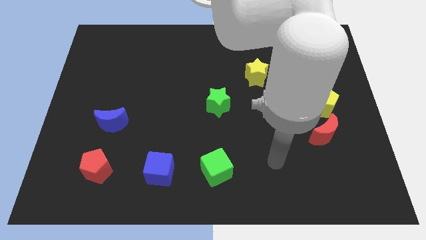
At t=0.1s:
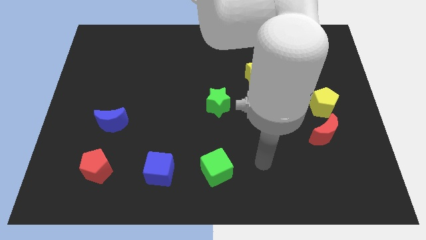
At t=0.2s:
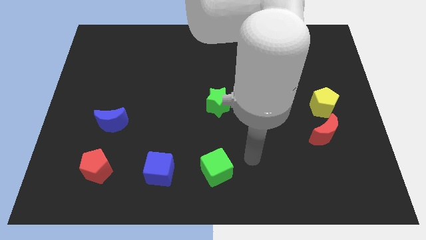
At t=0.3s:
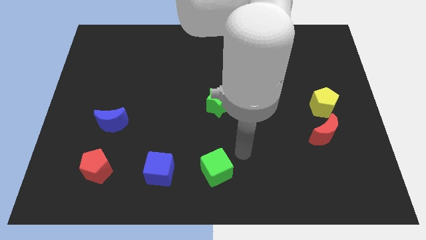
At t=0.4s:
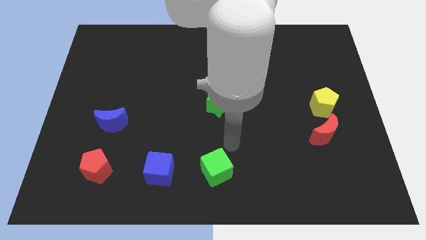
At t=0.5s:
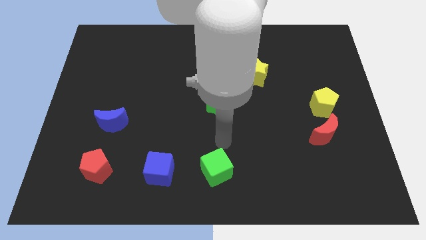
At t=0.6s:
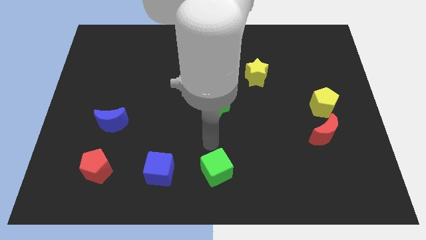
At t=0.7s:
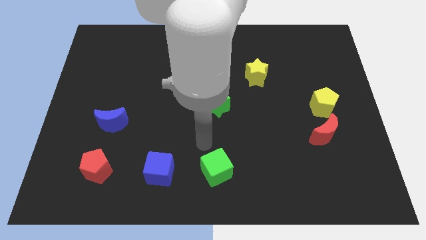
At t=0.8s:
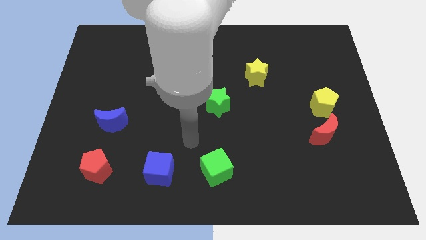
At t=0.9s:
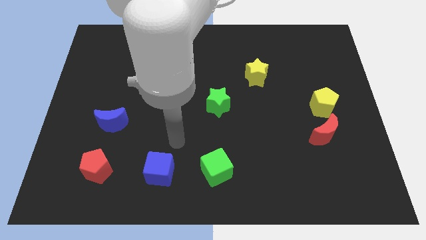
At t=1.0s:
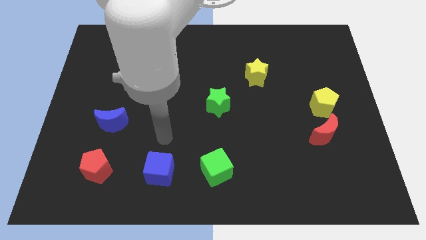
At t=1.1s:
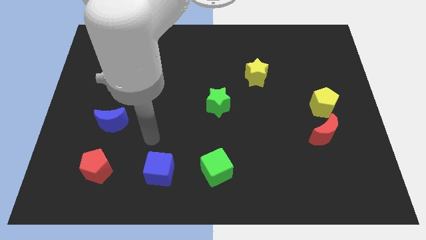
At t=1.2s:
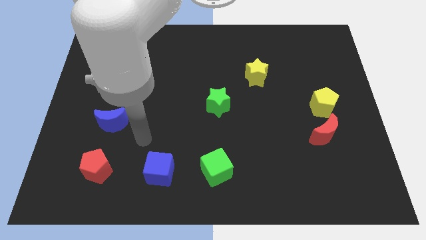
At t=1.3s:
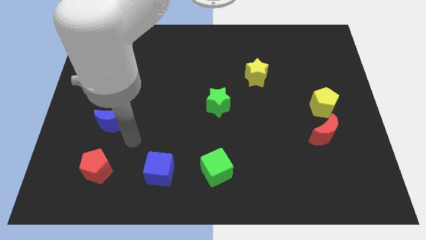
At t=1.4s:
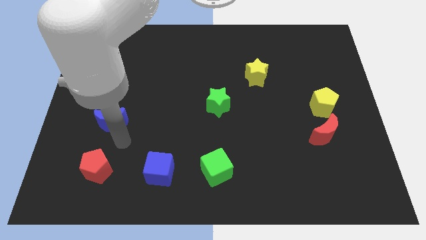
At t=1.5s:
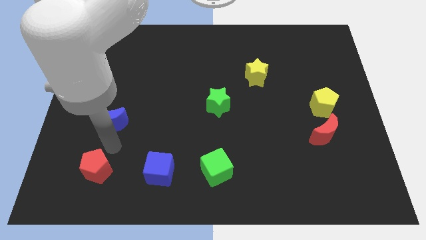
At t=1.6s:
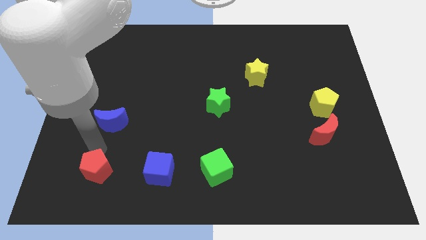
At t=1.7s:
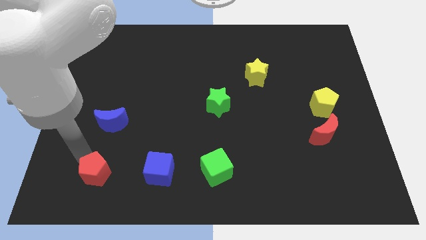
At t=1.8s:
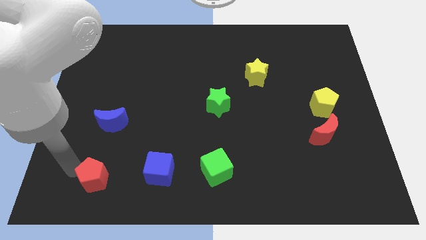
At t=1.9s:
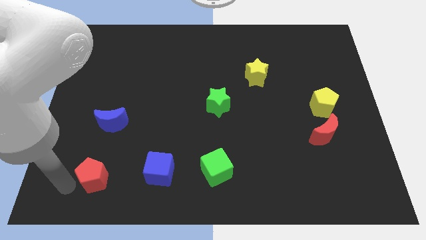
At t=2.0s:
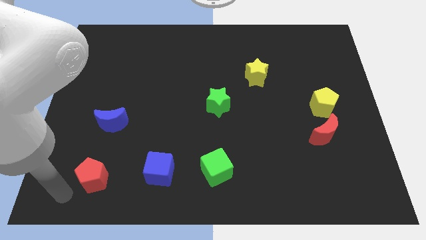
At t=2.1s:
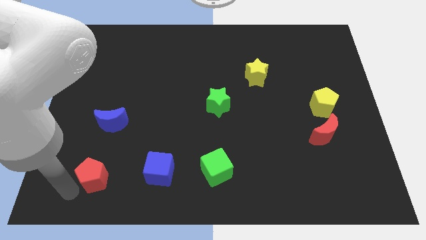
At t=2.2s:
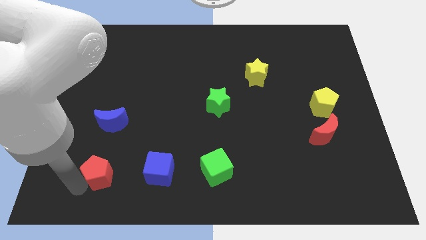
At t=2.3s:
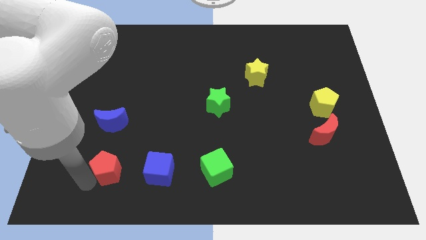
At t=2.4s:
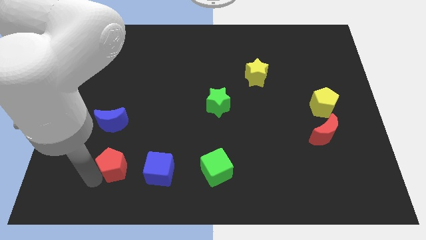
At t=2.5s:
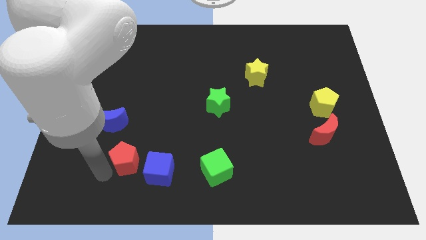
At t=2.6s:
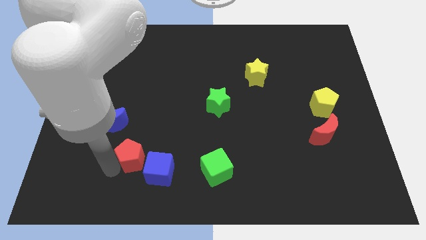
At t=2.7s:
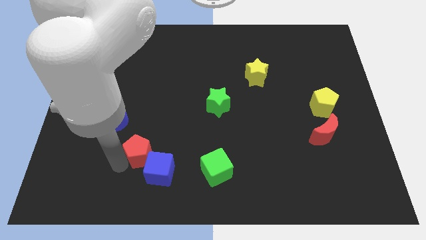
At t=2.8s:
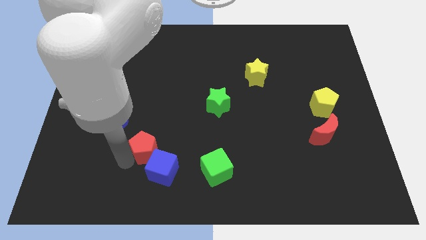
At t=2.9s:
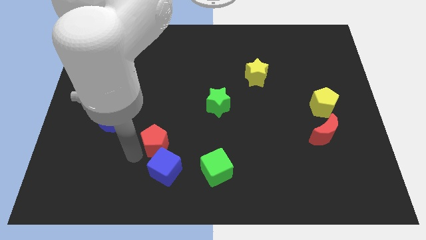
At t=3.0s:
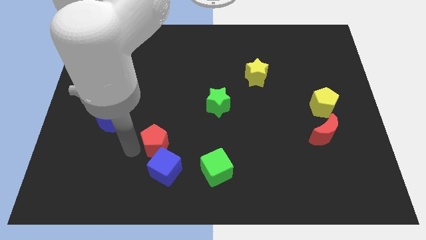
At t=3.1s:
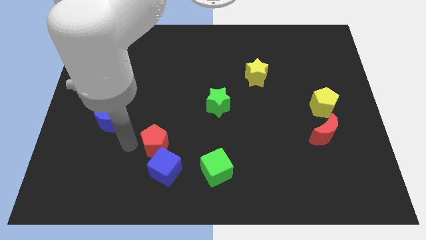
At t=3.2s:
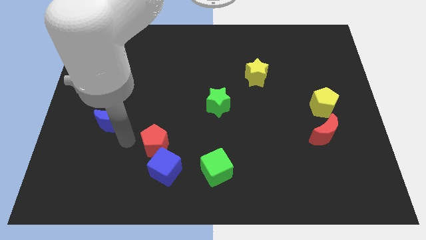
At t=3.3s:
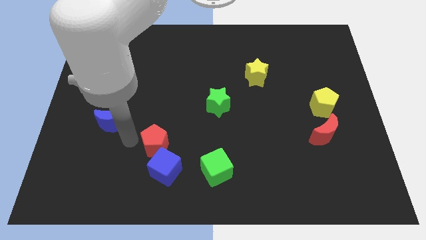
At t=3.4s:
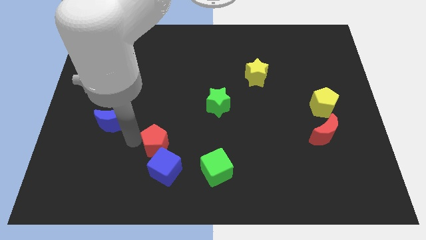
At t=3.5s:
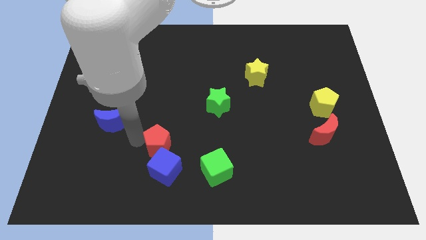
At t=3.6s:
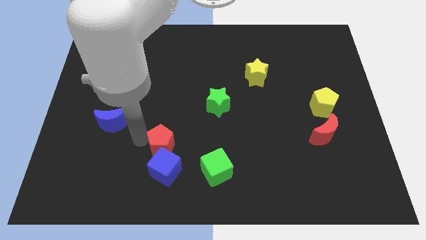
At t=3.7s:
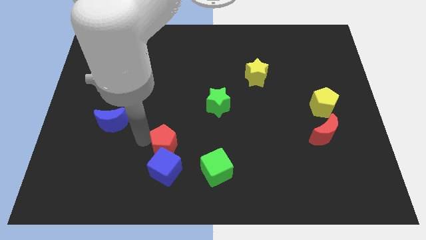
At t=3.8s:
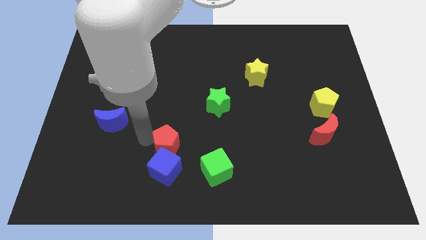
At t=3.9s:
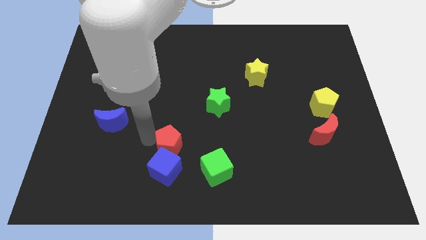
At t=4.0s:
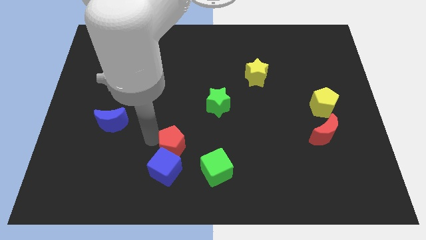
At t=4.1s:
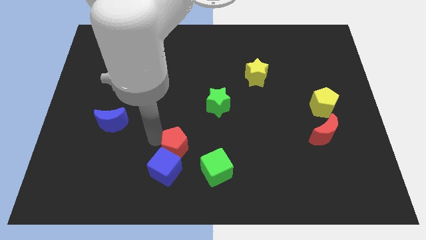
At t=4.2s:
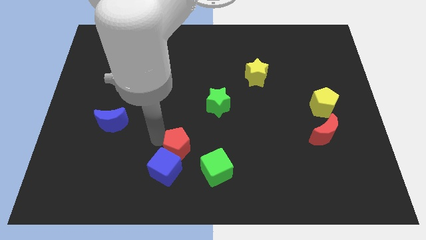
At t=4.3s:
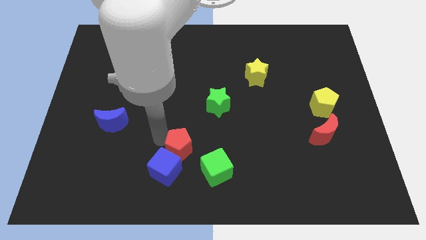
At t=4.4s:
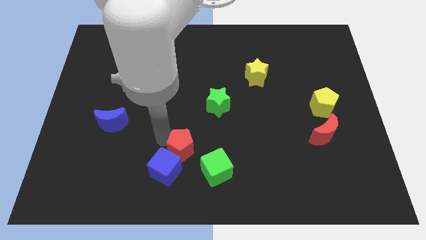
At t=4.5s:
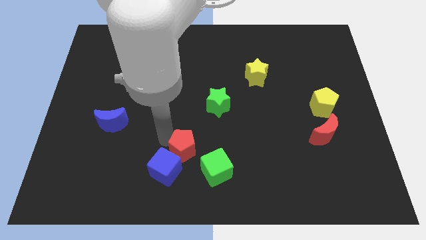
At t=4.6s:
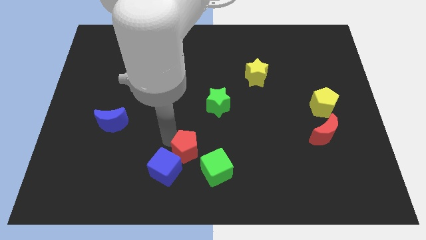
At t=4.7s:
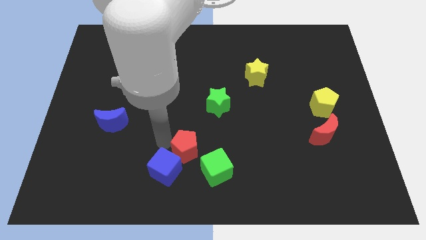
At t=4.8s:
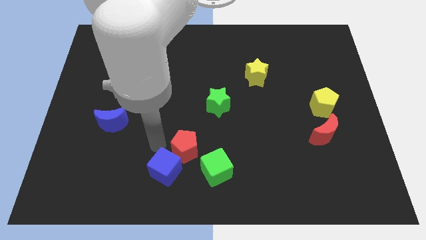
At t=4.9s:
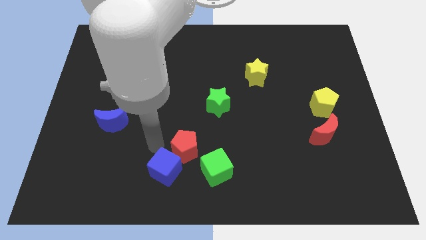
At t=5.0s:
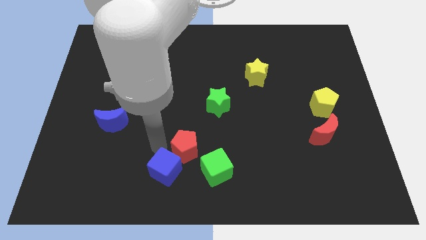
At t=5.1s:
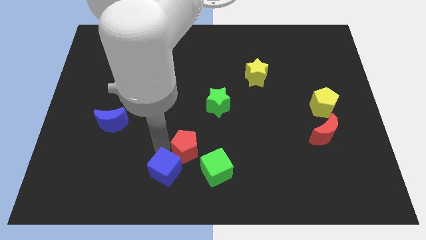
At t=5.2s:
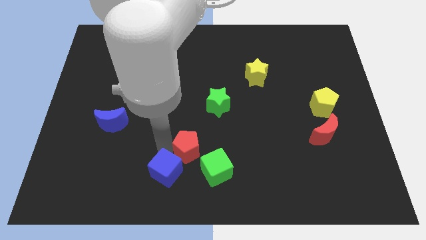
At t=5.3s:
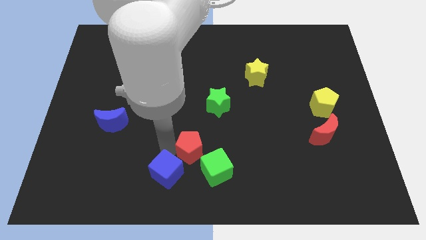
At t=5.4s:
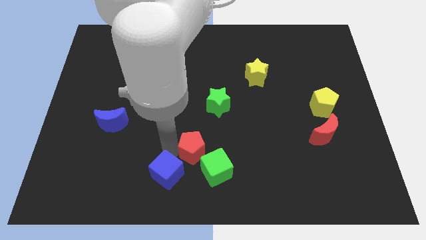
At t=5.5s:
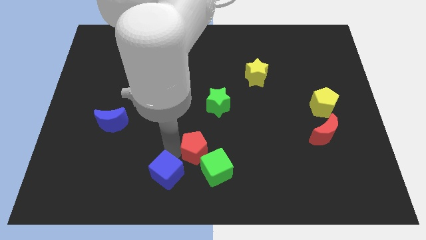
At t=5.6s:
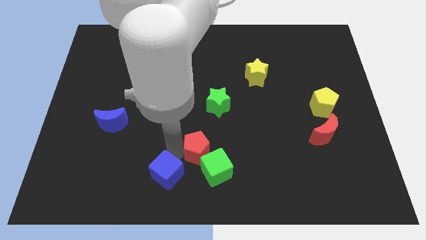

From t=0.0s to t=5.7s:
slide the red pentagon right

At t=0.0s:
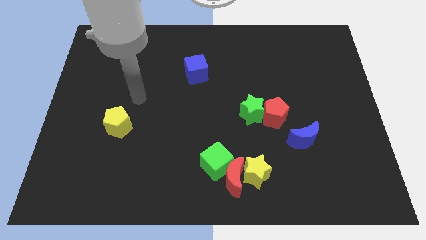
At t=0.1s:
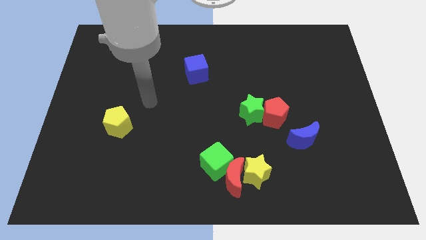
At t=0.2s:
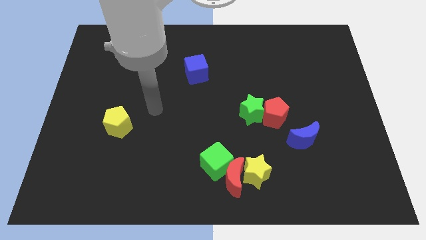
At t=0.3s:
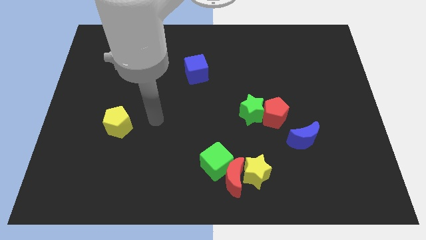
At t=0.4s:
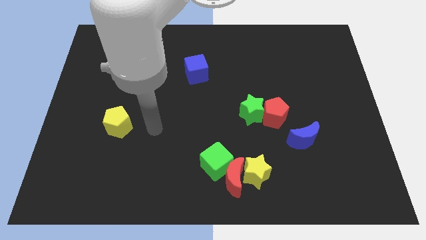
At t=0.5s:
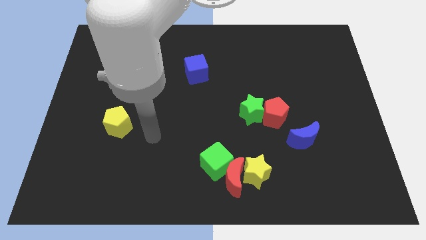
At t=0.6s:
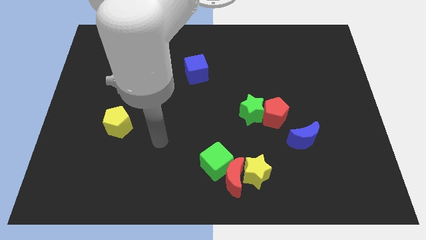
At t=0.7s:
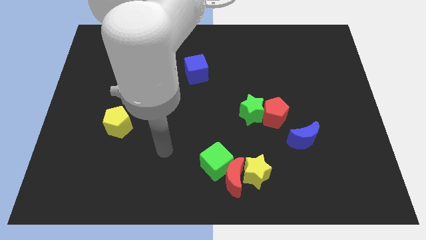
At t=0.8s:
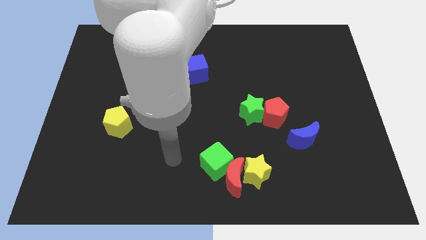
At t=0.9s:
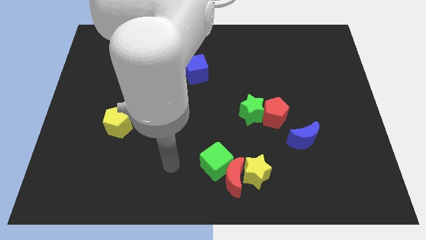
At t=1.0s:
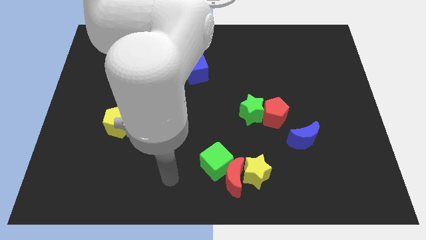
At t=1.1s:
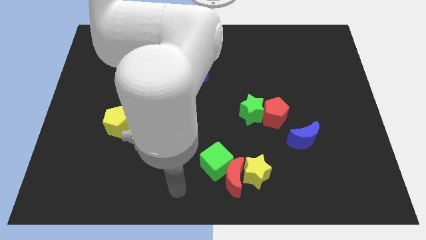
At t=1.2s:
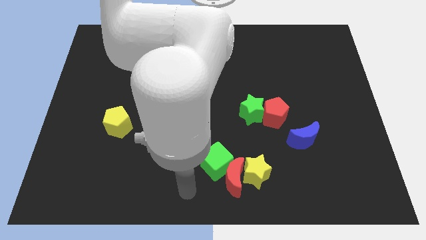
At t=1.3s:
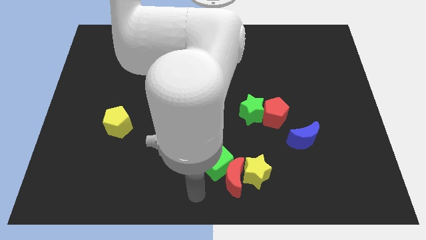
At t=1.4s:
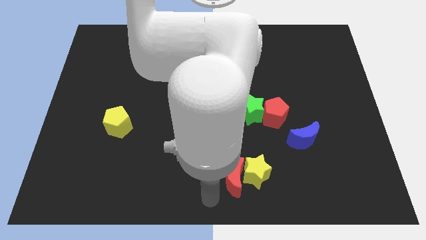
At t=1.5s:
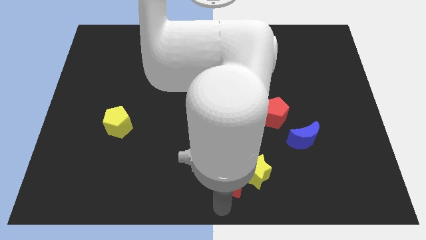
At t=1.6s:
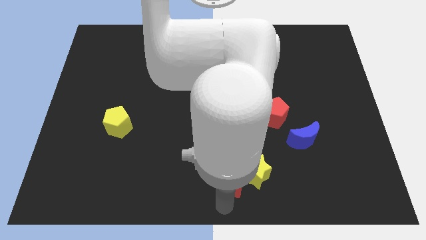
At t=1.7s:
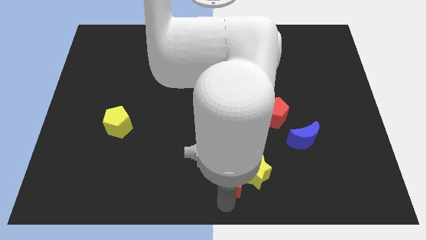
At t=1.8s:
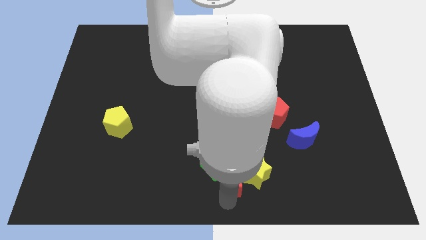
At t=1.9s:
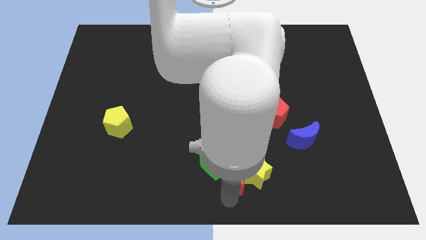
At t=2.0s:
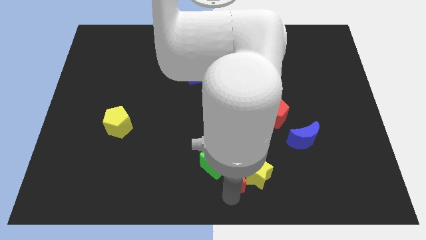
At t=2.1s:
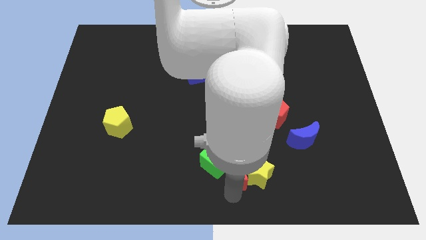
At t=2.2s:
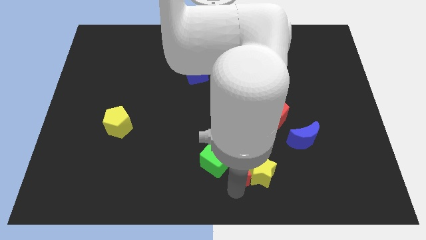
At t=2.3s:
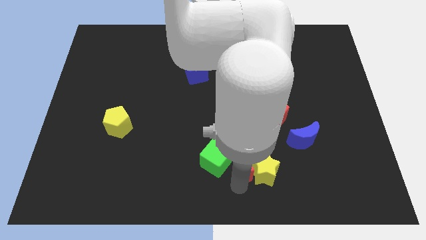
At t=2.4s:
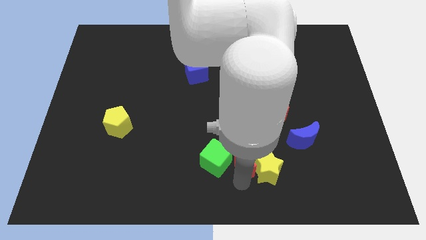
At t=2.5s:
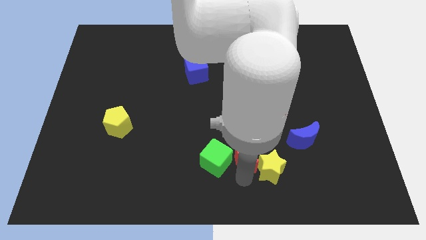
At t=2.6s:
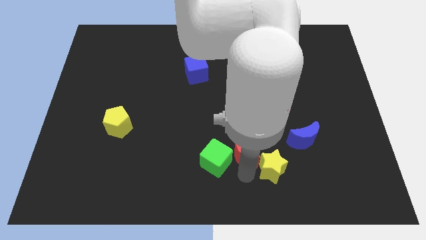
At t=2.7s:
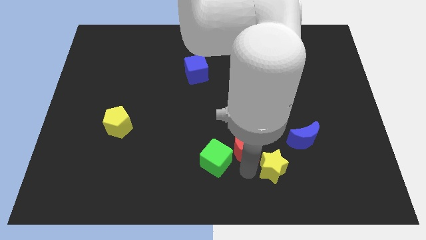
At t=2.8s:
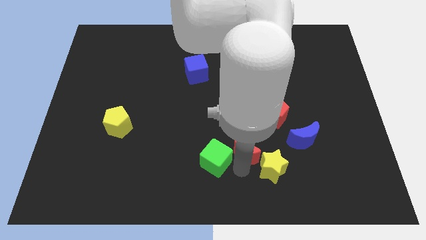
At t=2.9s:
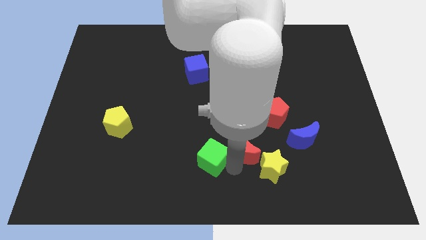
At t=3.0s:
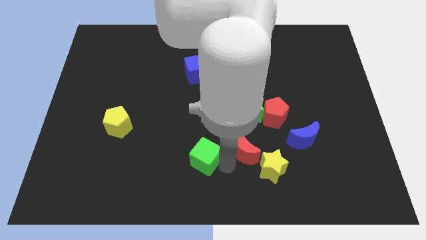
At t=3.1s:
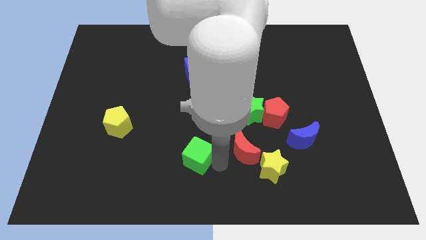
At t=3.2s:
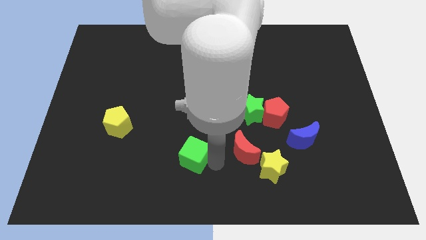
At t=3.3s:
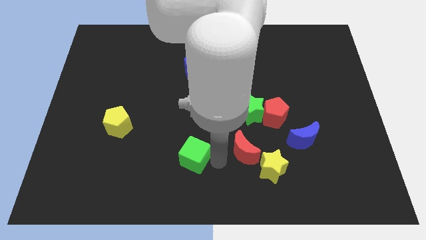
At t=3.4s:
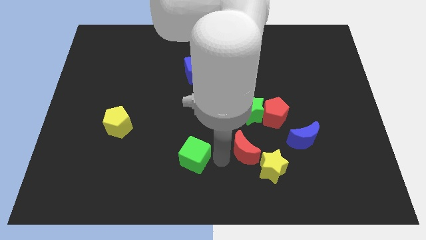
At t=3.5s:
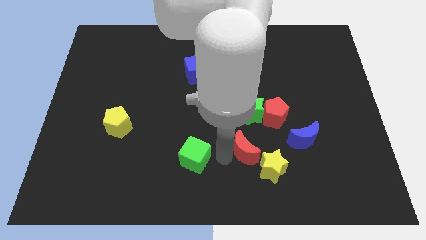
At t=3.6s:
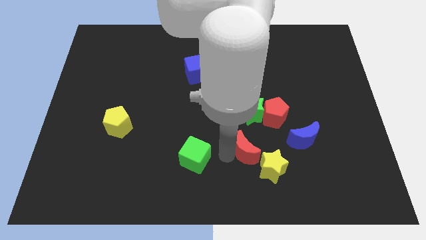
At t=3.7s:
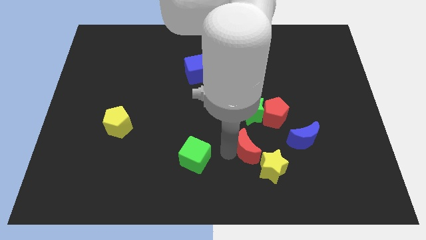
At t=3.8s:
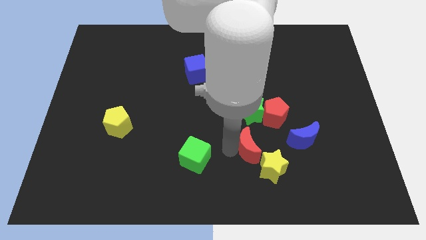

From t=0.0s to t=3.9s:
slightly move the red moon diagonally up and to the right
